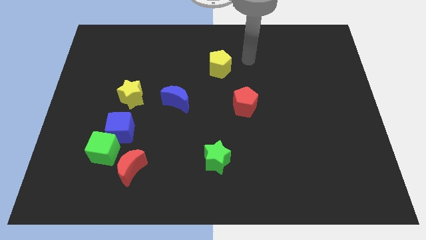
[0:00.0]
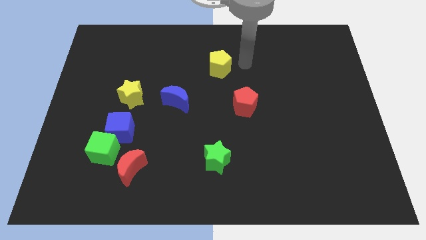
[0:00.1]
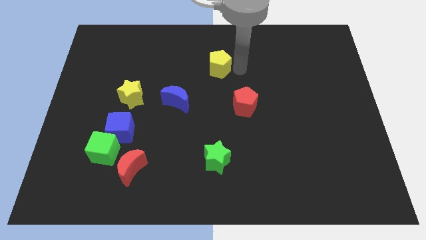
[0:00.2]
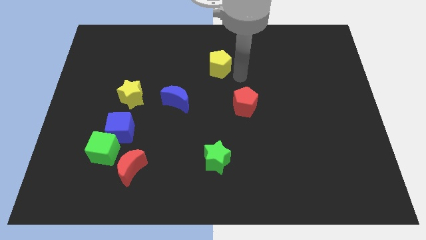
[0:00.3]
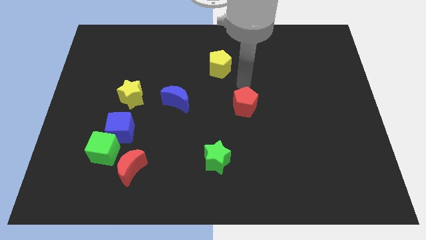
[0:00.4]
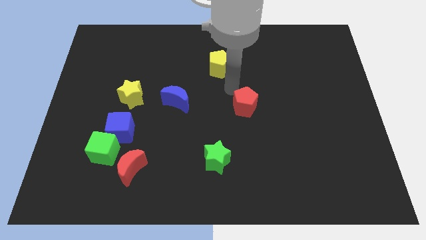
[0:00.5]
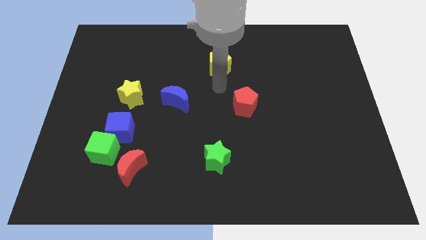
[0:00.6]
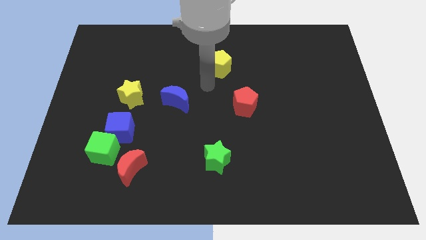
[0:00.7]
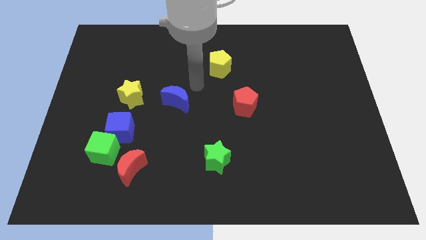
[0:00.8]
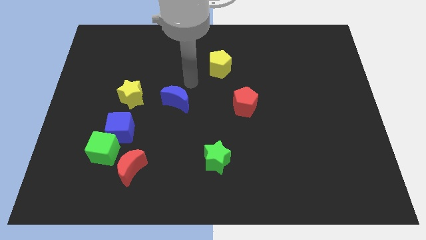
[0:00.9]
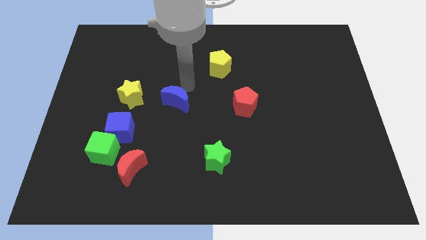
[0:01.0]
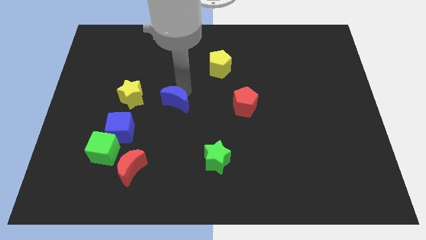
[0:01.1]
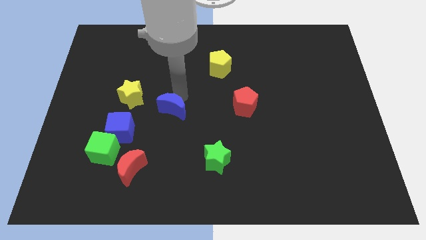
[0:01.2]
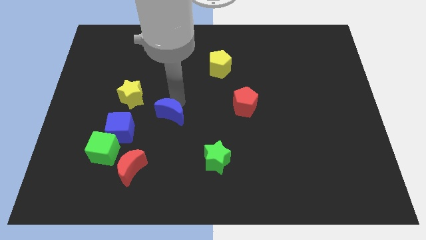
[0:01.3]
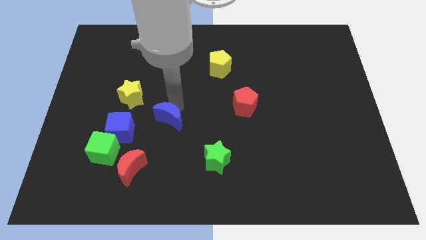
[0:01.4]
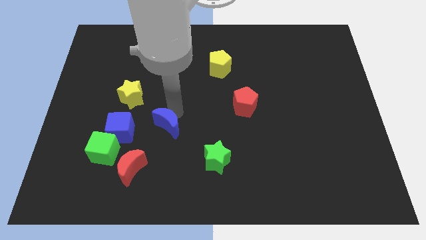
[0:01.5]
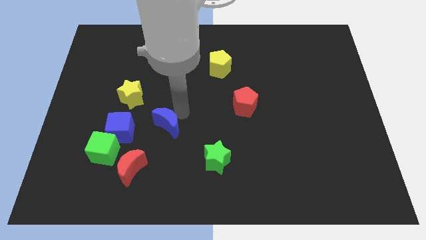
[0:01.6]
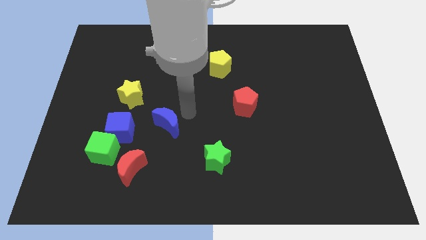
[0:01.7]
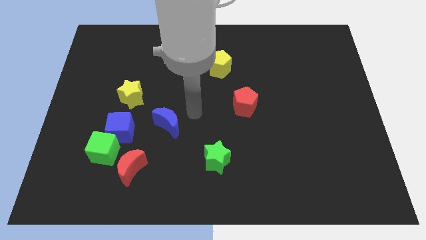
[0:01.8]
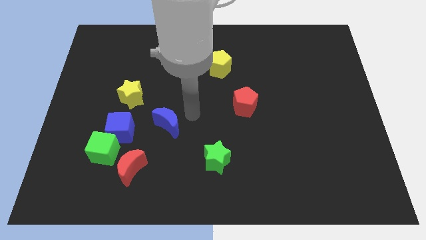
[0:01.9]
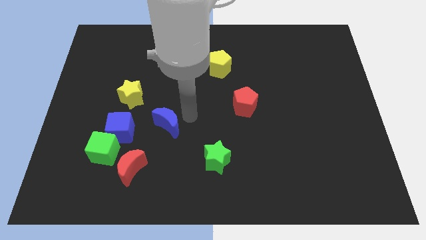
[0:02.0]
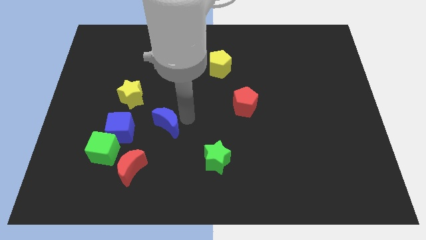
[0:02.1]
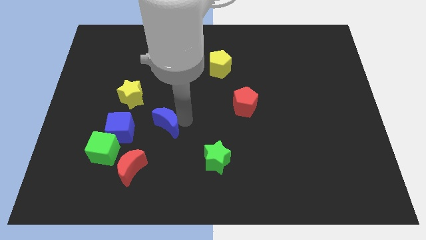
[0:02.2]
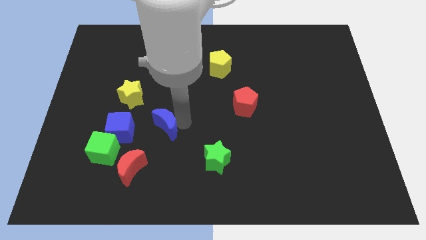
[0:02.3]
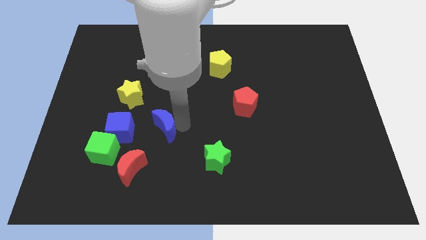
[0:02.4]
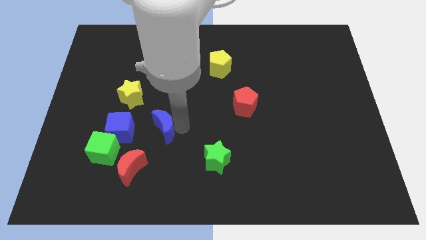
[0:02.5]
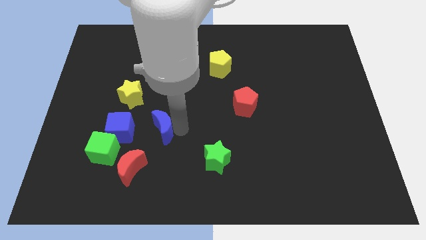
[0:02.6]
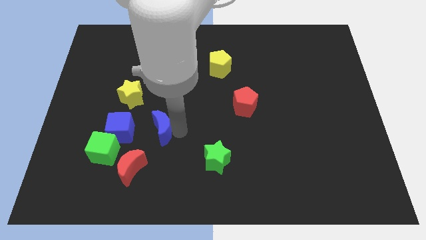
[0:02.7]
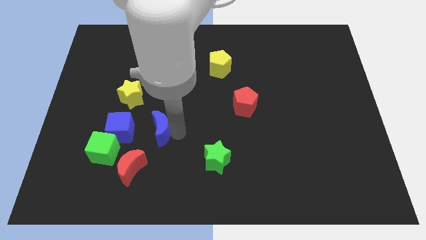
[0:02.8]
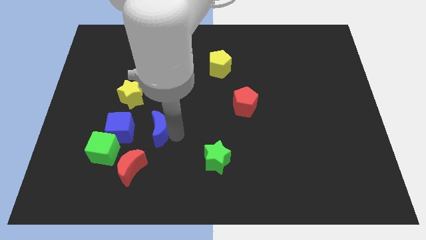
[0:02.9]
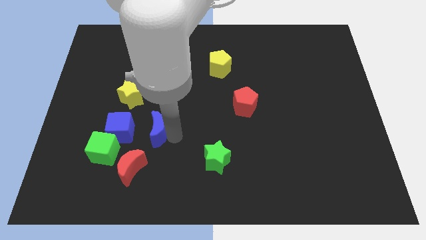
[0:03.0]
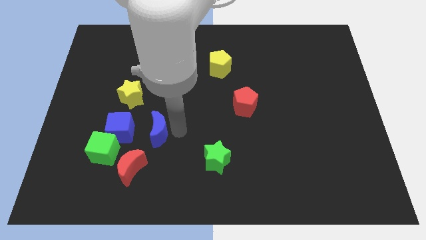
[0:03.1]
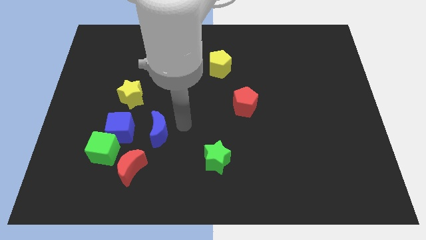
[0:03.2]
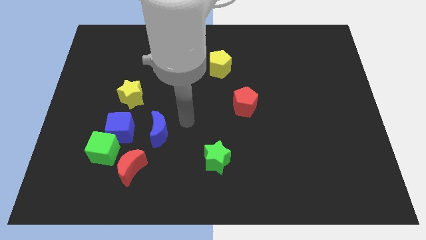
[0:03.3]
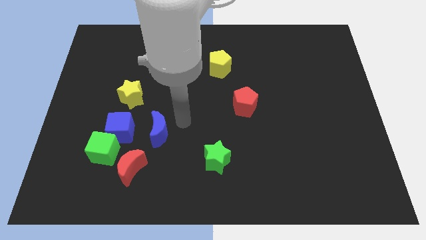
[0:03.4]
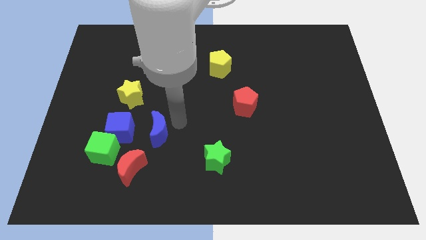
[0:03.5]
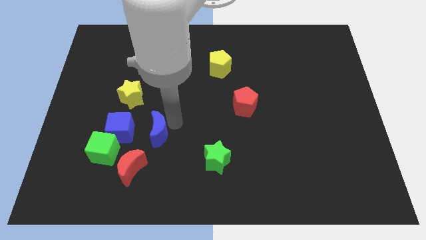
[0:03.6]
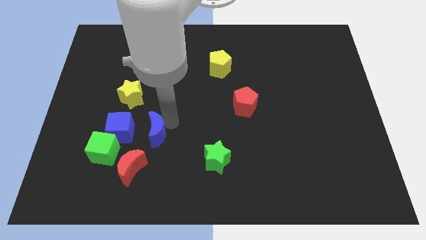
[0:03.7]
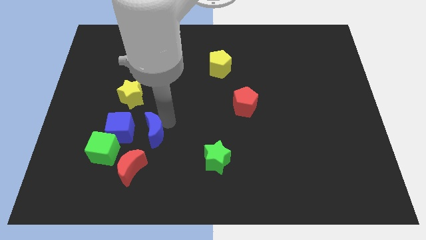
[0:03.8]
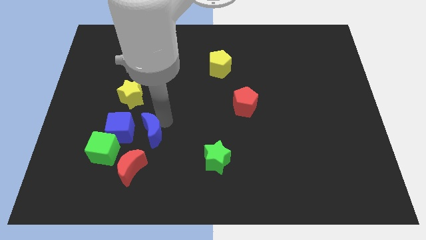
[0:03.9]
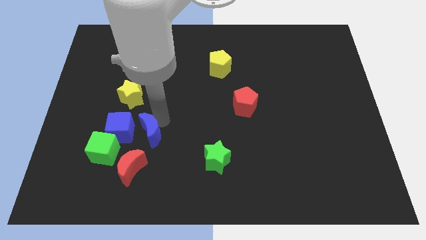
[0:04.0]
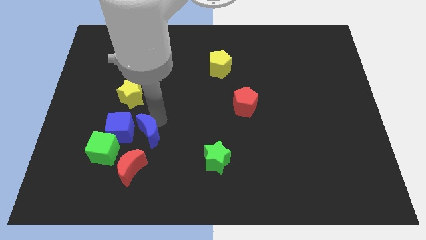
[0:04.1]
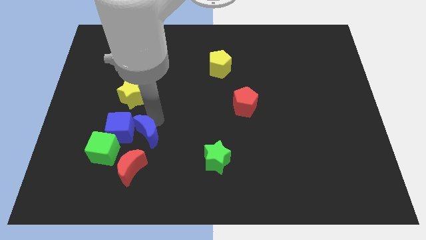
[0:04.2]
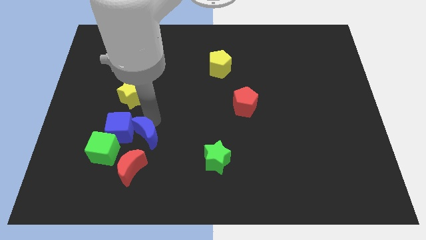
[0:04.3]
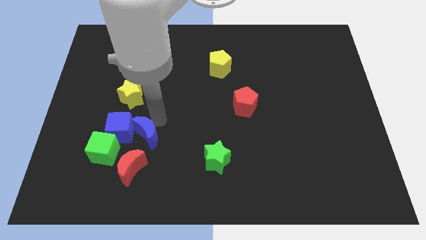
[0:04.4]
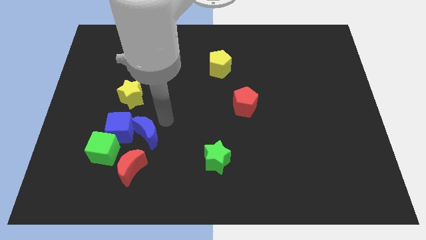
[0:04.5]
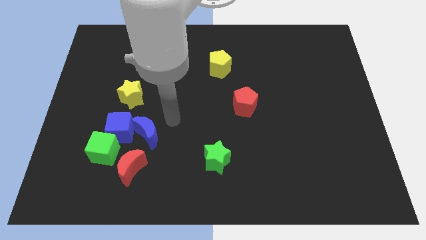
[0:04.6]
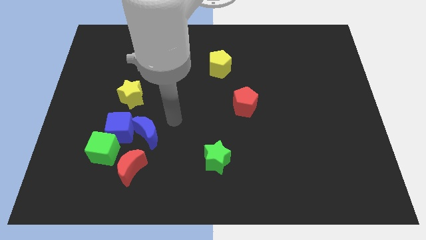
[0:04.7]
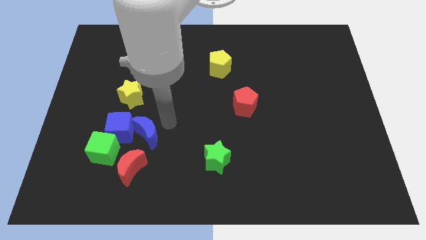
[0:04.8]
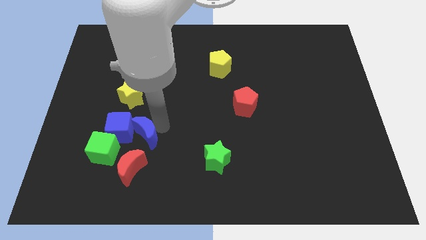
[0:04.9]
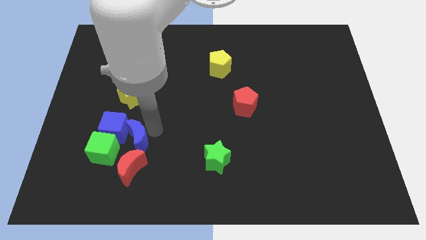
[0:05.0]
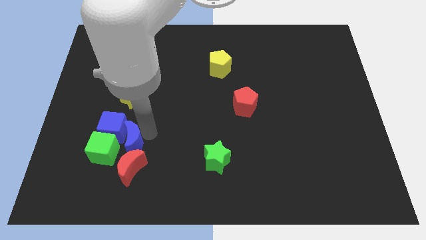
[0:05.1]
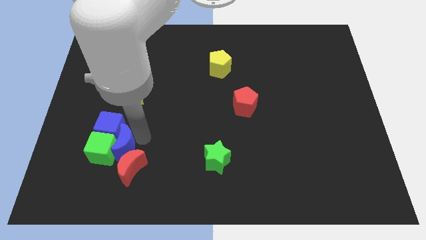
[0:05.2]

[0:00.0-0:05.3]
slide the blue moon next to the green cube

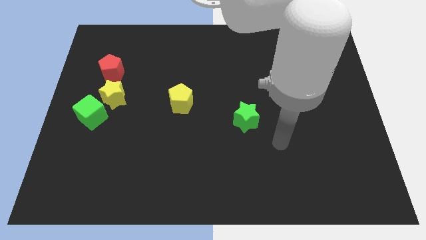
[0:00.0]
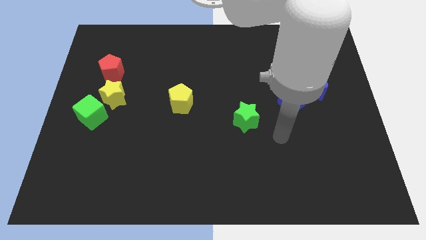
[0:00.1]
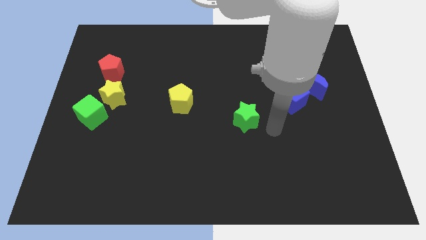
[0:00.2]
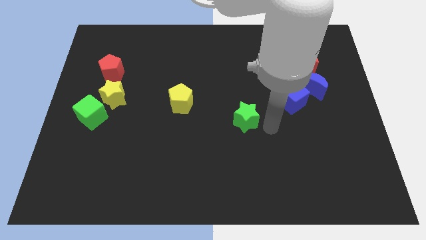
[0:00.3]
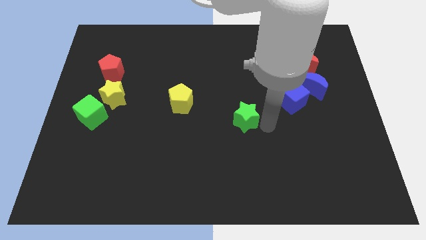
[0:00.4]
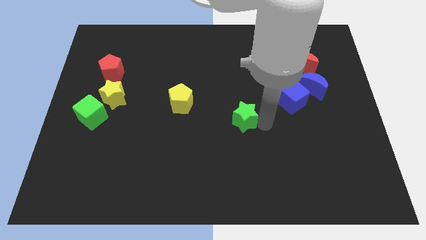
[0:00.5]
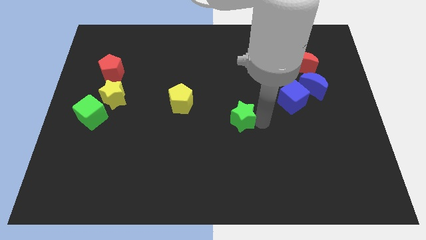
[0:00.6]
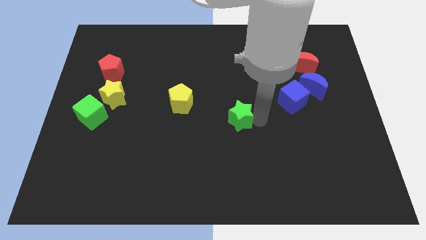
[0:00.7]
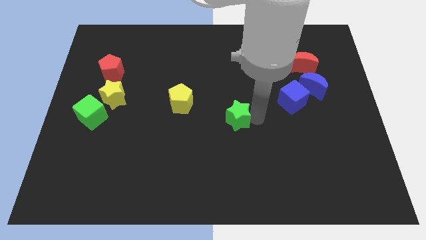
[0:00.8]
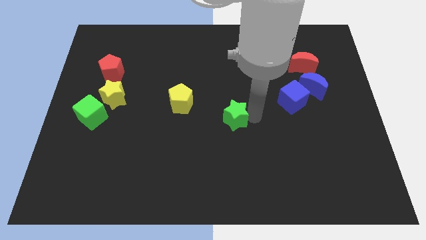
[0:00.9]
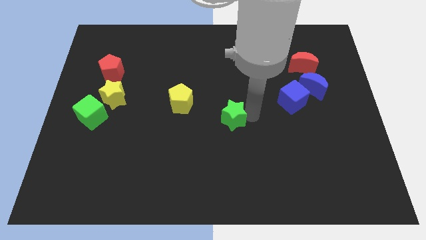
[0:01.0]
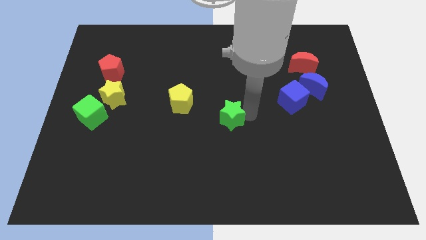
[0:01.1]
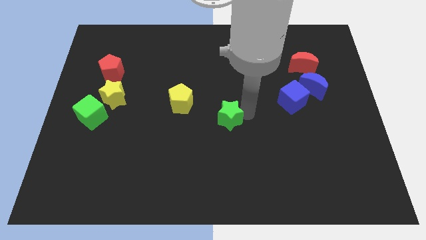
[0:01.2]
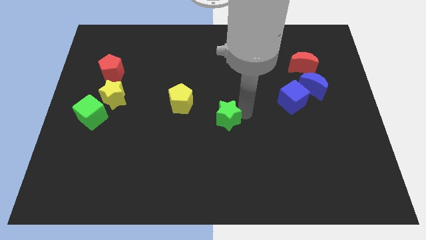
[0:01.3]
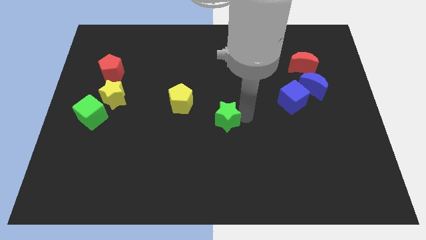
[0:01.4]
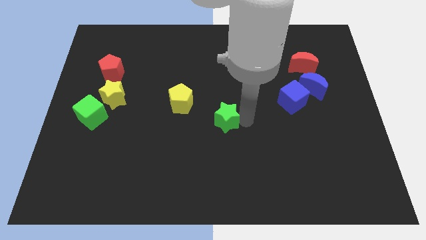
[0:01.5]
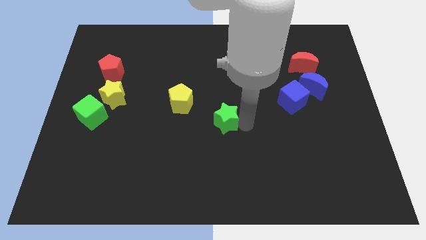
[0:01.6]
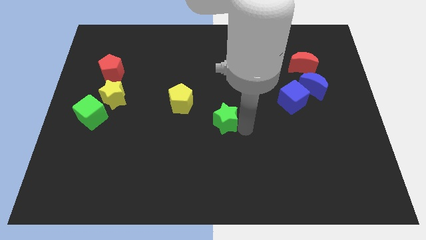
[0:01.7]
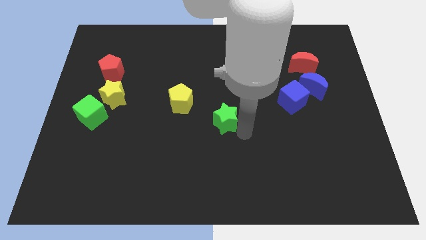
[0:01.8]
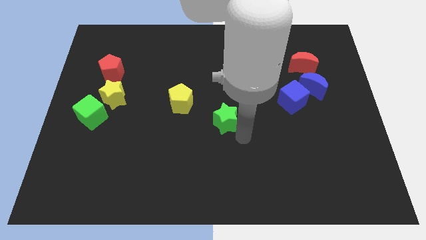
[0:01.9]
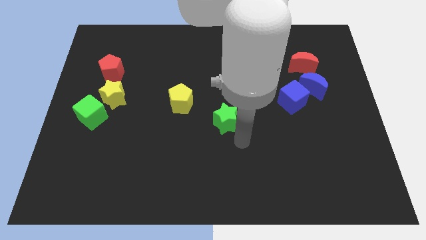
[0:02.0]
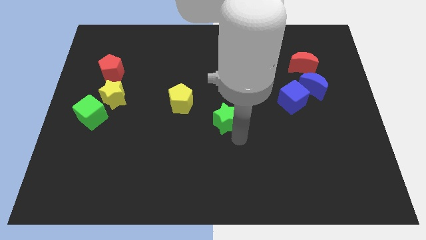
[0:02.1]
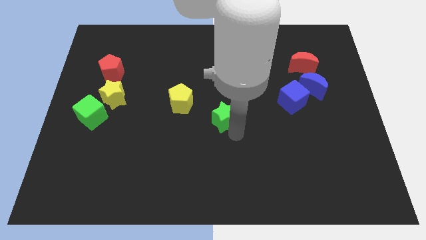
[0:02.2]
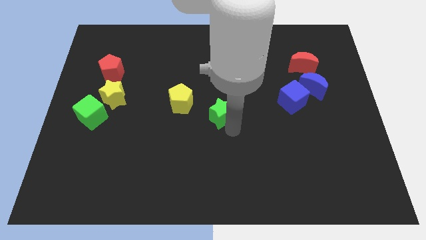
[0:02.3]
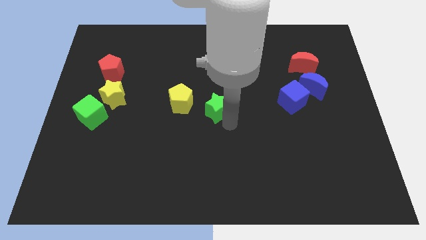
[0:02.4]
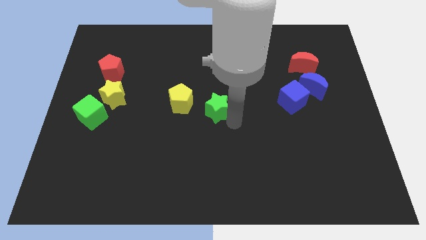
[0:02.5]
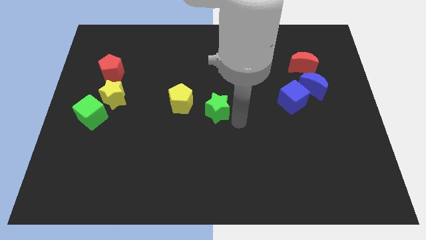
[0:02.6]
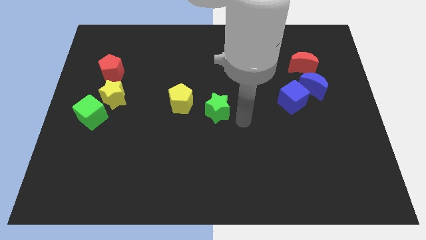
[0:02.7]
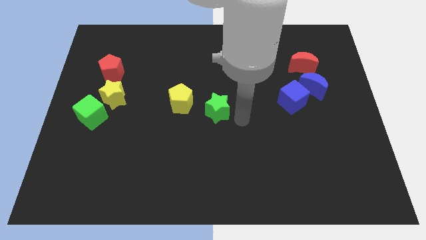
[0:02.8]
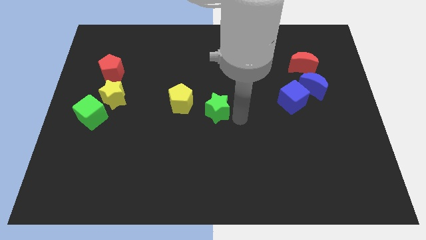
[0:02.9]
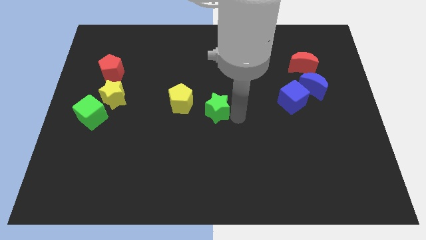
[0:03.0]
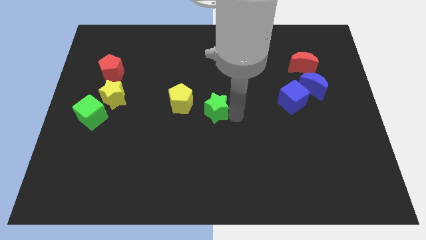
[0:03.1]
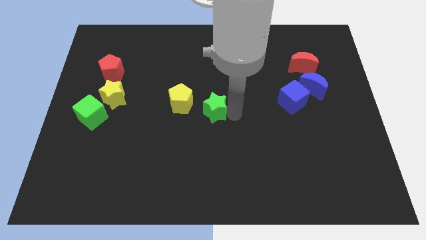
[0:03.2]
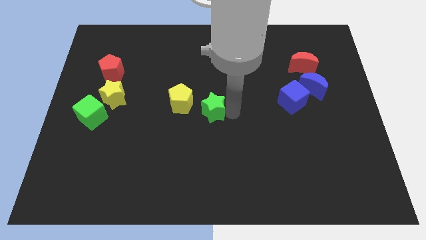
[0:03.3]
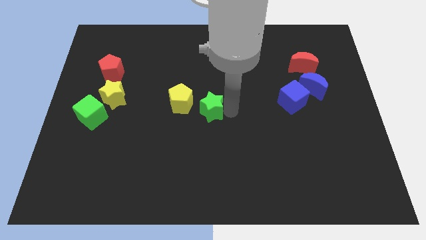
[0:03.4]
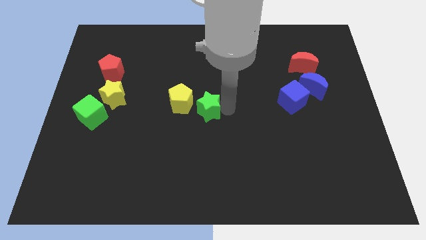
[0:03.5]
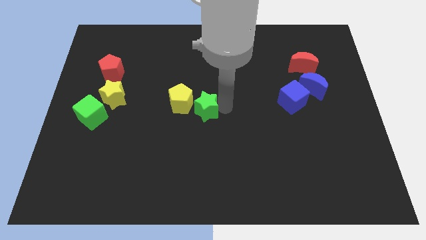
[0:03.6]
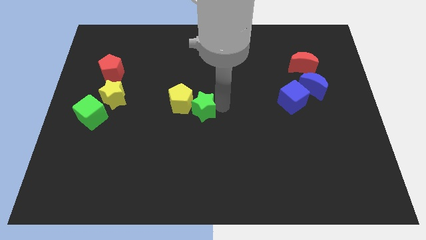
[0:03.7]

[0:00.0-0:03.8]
put the green star towards the yellow pentagon
